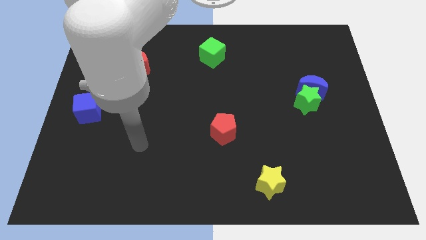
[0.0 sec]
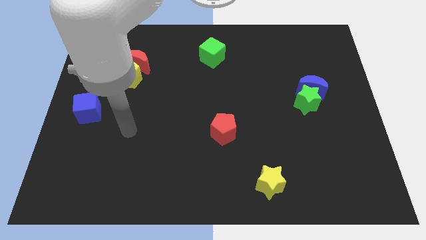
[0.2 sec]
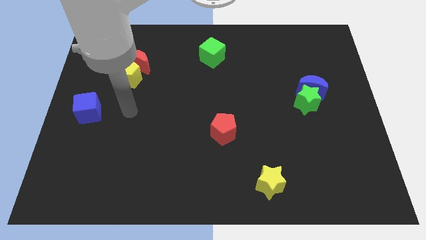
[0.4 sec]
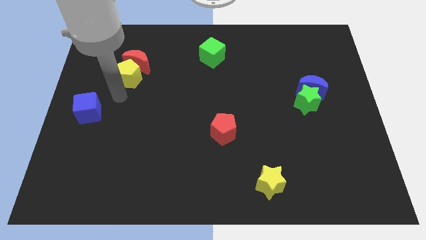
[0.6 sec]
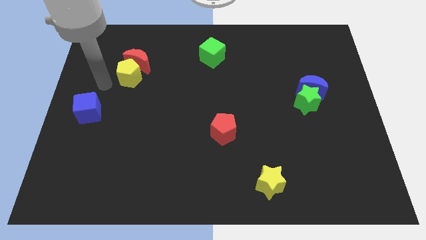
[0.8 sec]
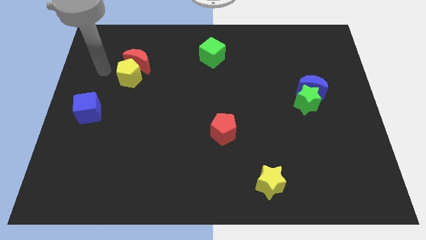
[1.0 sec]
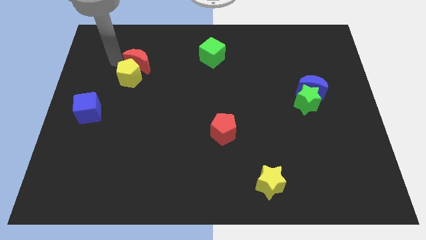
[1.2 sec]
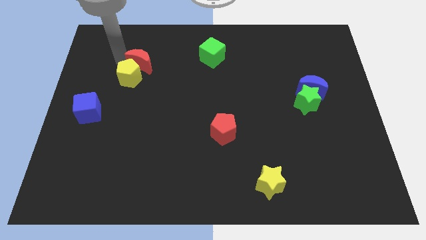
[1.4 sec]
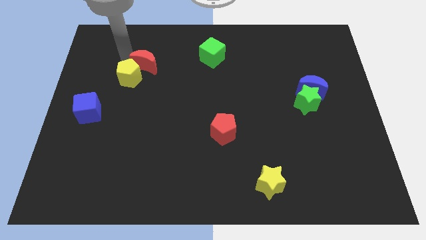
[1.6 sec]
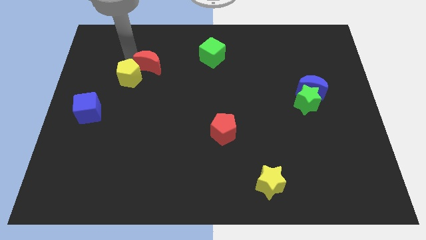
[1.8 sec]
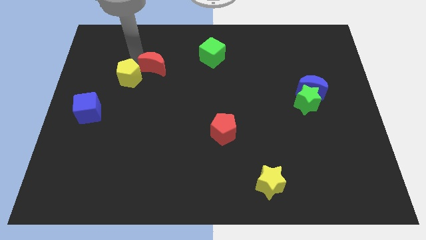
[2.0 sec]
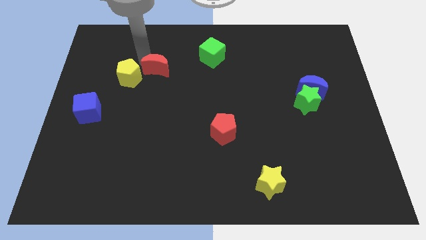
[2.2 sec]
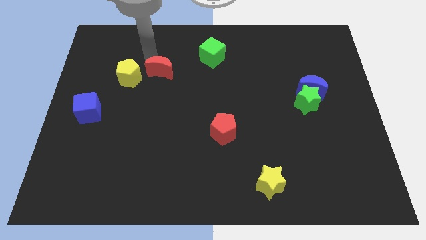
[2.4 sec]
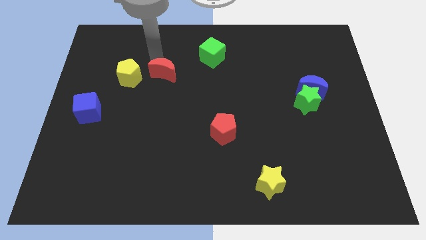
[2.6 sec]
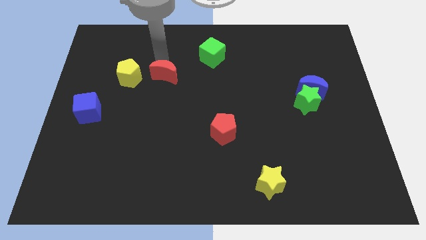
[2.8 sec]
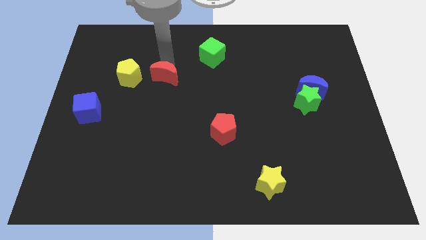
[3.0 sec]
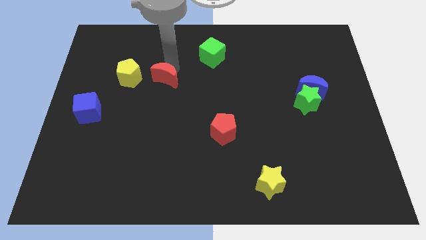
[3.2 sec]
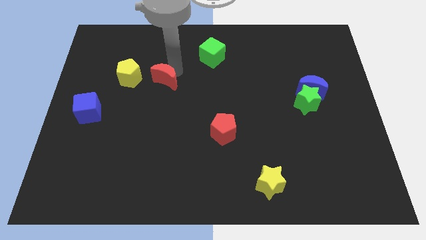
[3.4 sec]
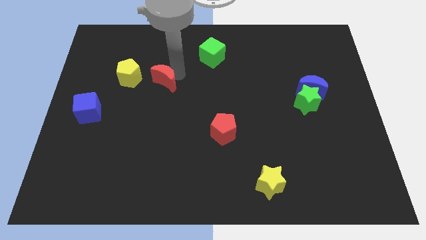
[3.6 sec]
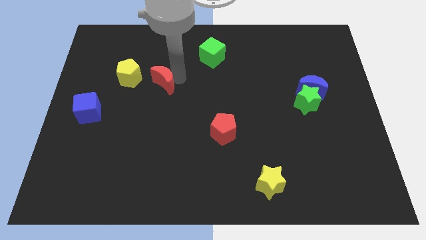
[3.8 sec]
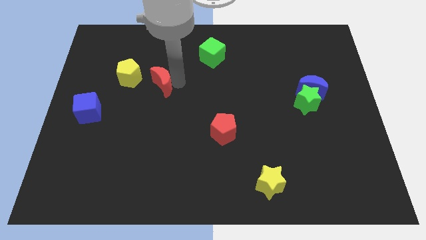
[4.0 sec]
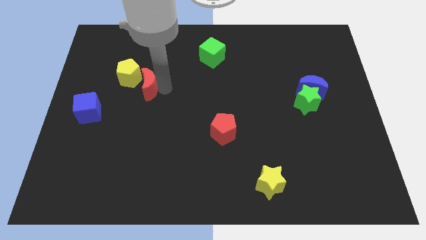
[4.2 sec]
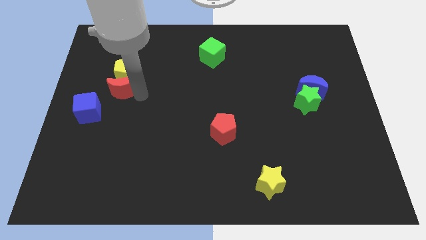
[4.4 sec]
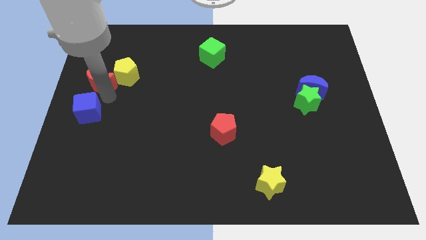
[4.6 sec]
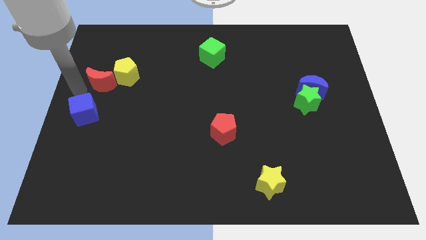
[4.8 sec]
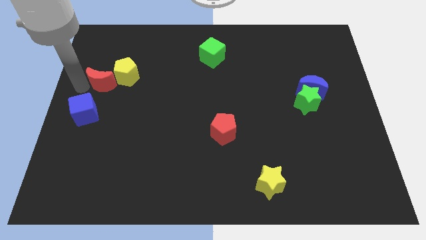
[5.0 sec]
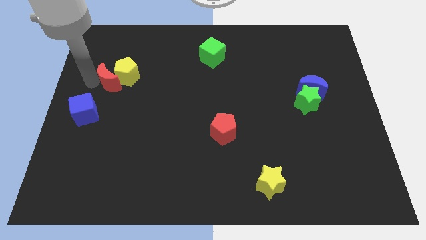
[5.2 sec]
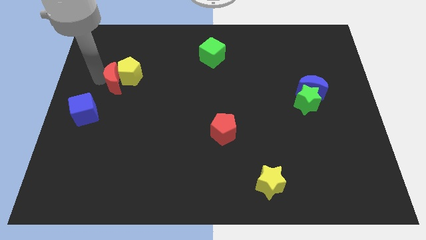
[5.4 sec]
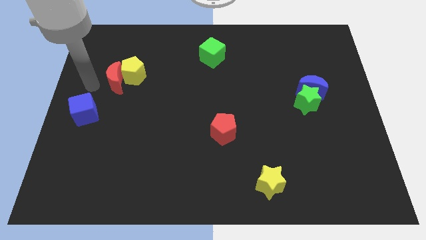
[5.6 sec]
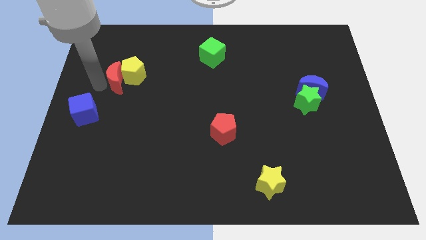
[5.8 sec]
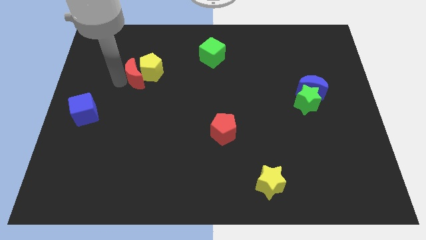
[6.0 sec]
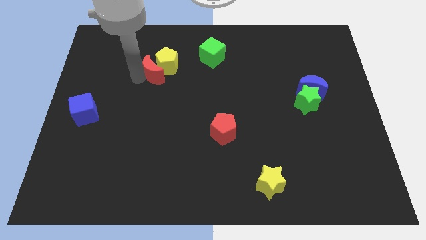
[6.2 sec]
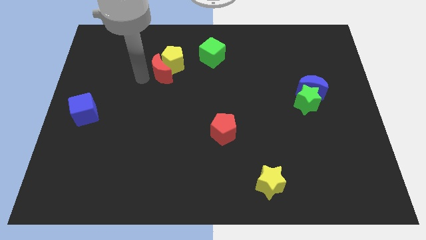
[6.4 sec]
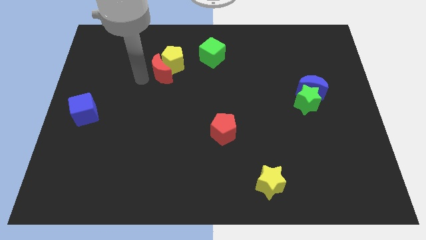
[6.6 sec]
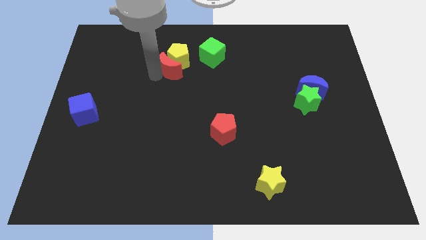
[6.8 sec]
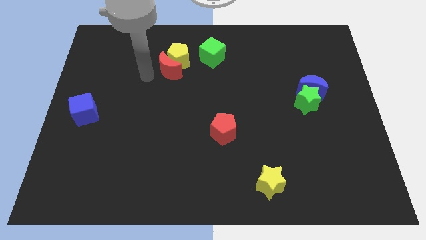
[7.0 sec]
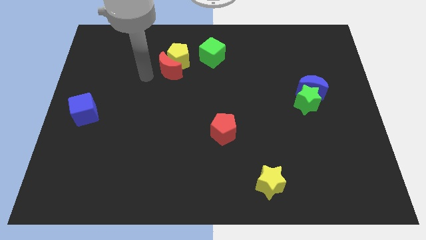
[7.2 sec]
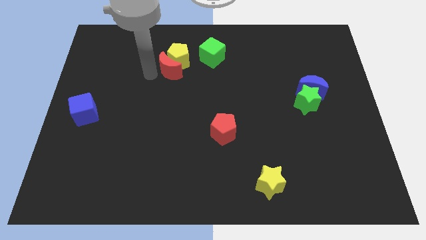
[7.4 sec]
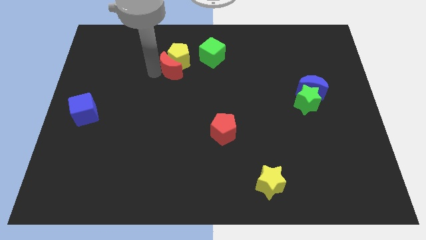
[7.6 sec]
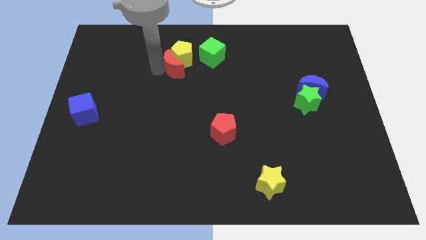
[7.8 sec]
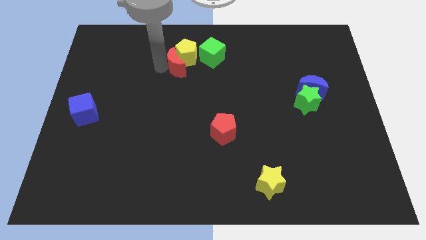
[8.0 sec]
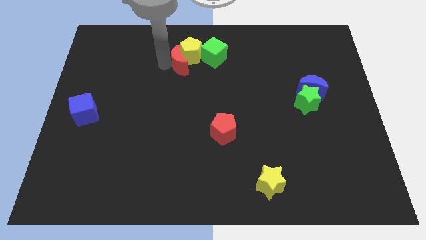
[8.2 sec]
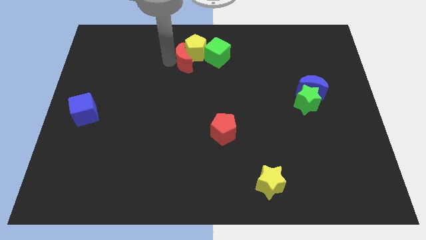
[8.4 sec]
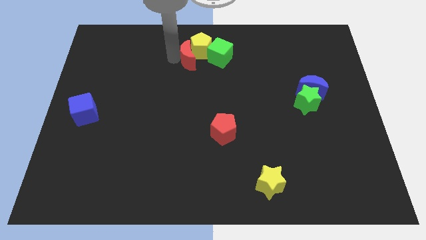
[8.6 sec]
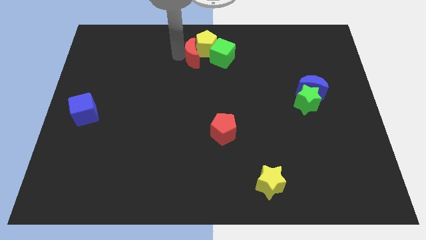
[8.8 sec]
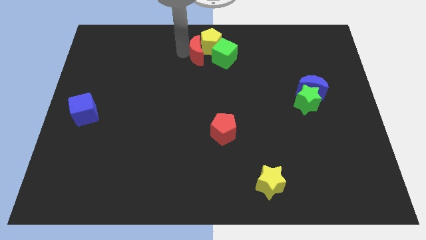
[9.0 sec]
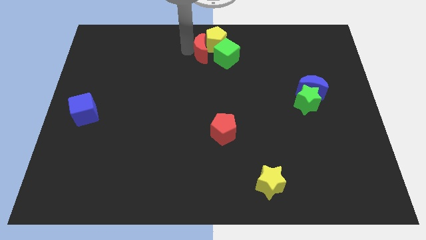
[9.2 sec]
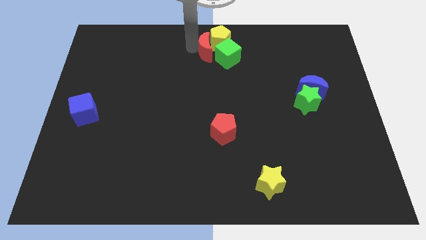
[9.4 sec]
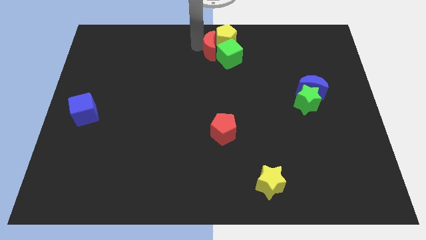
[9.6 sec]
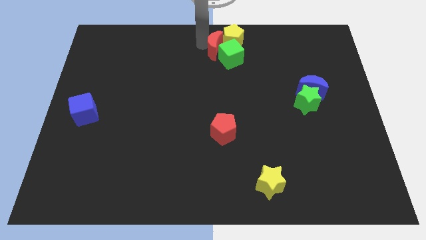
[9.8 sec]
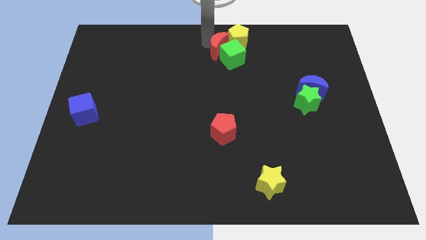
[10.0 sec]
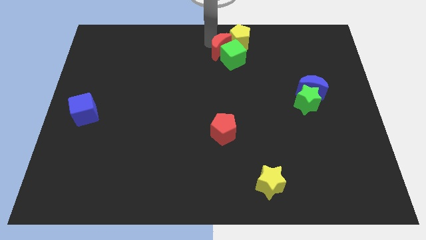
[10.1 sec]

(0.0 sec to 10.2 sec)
move the red moon to the right

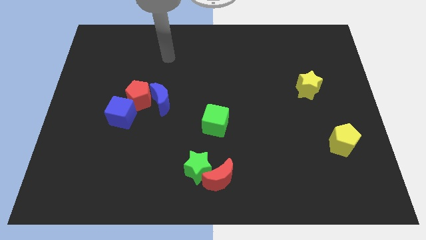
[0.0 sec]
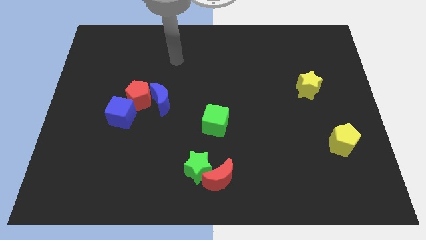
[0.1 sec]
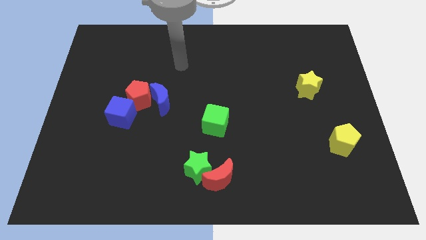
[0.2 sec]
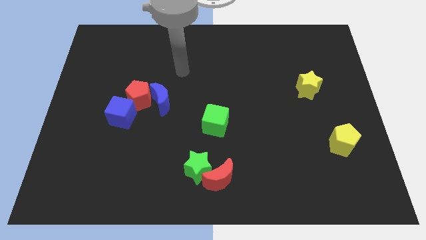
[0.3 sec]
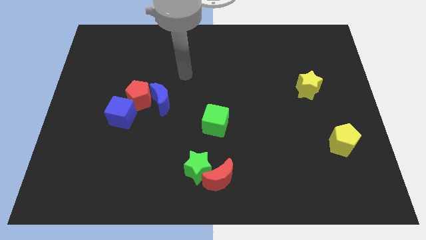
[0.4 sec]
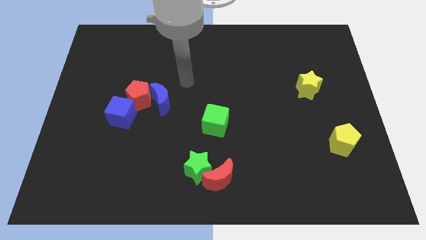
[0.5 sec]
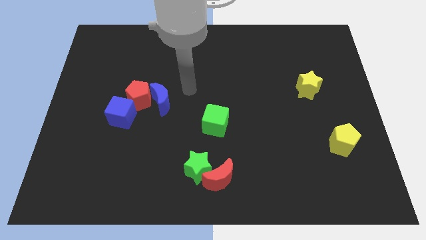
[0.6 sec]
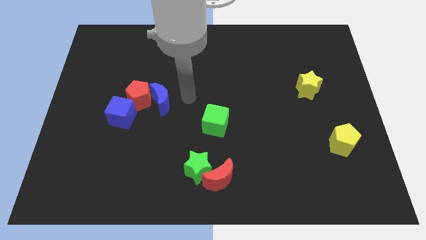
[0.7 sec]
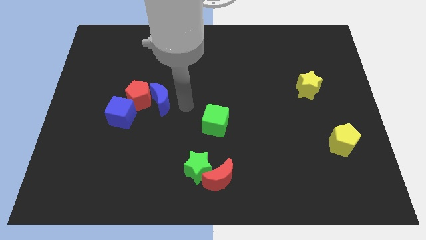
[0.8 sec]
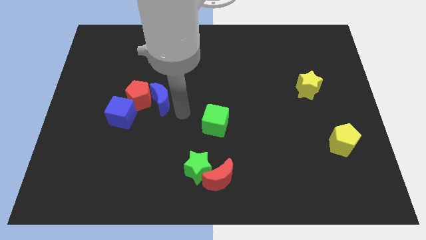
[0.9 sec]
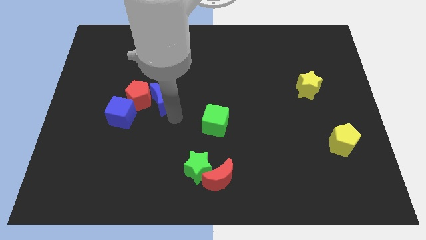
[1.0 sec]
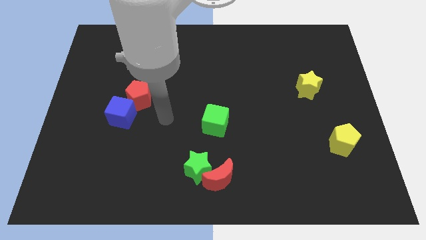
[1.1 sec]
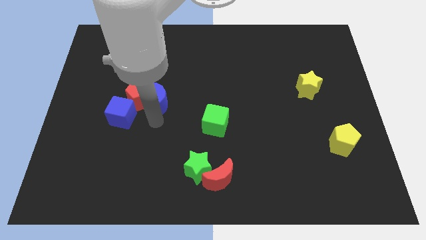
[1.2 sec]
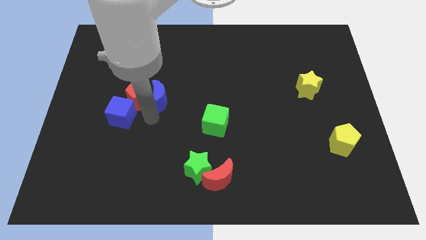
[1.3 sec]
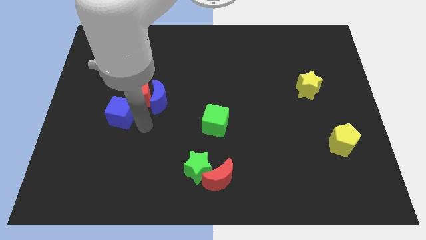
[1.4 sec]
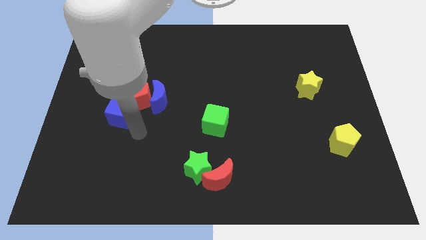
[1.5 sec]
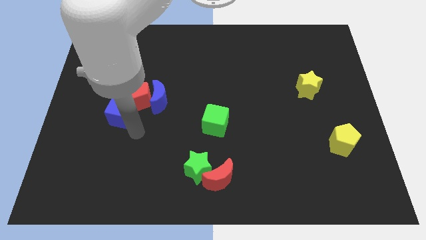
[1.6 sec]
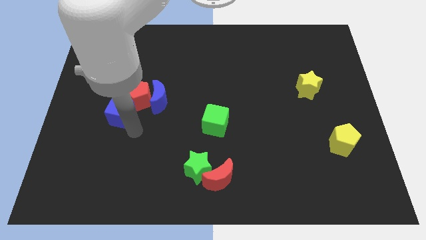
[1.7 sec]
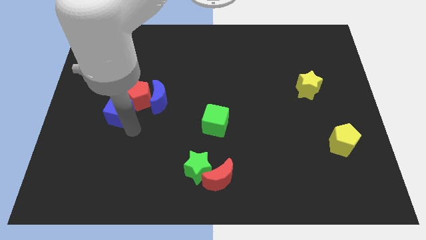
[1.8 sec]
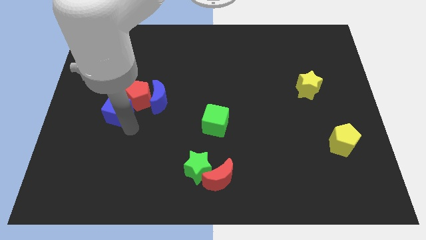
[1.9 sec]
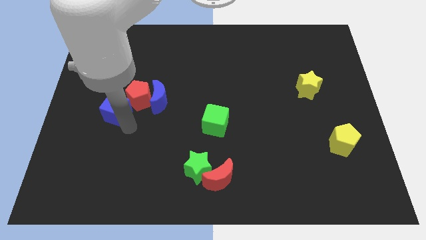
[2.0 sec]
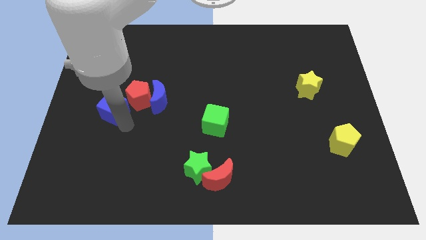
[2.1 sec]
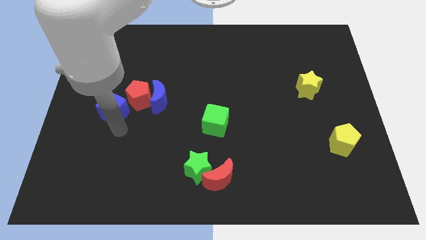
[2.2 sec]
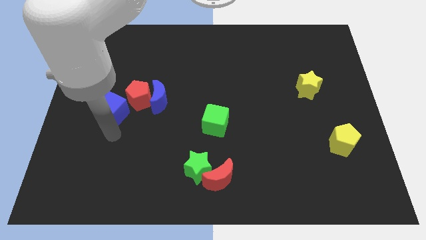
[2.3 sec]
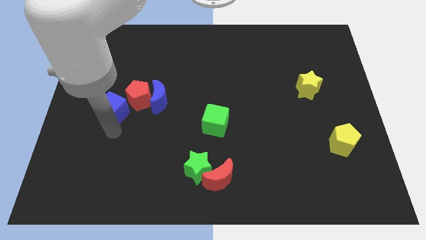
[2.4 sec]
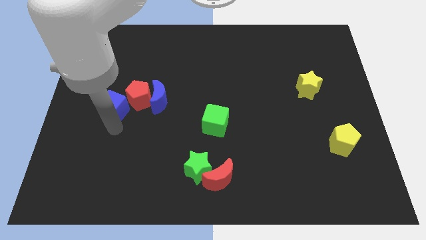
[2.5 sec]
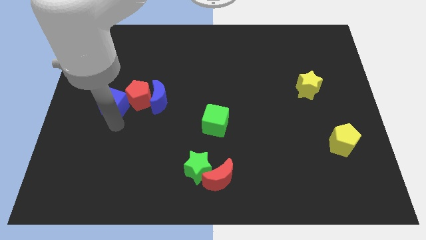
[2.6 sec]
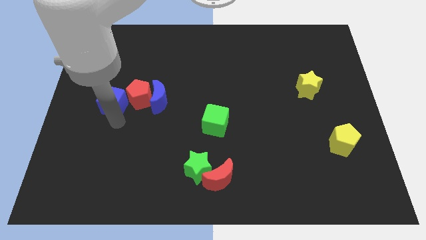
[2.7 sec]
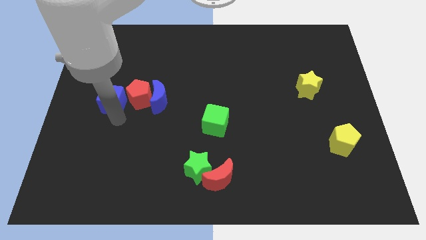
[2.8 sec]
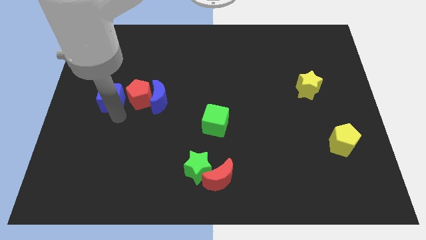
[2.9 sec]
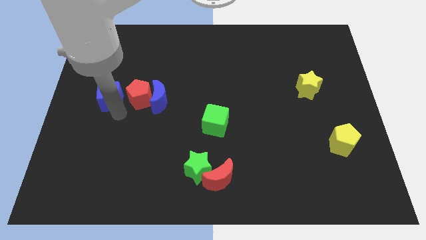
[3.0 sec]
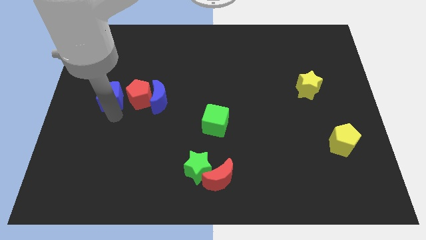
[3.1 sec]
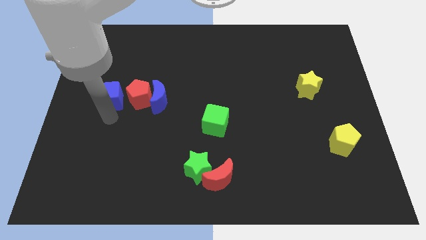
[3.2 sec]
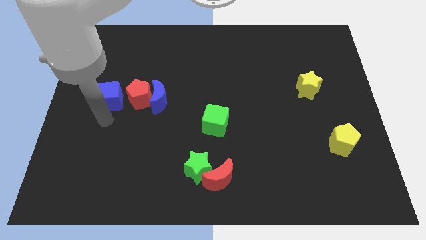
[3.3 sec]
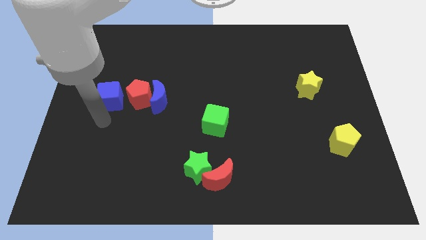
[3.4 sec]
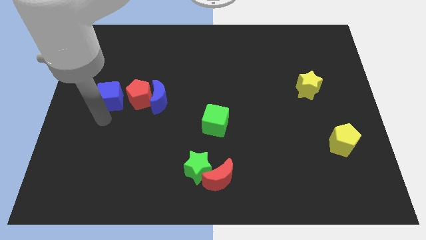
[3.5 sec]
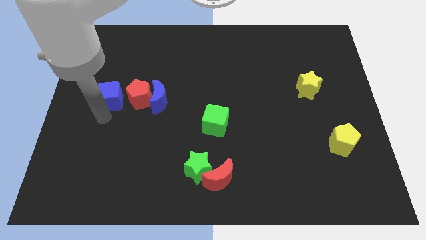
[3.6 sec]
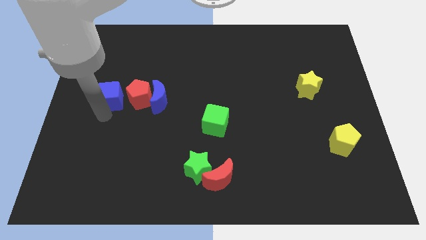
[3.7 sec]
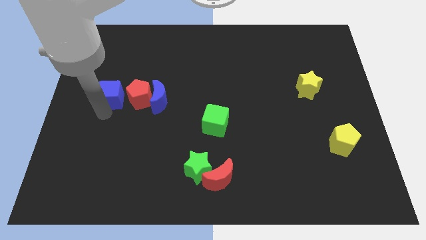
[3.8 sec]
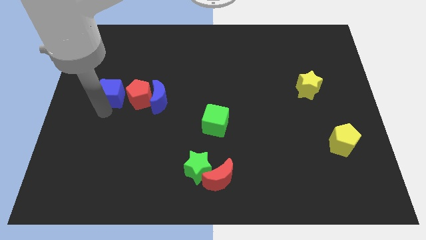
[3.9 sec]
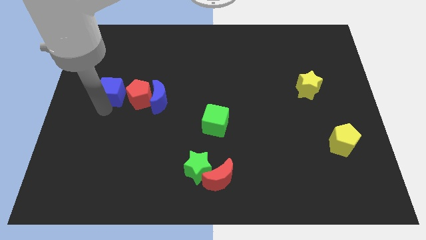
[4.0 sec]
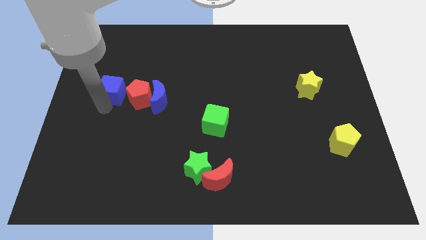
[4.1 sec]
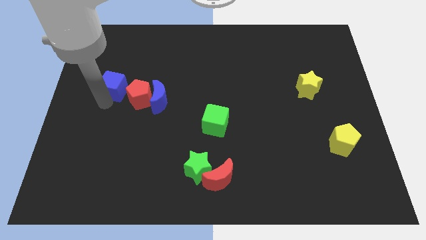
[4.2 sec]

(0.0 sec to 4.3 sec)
slide the blue cube up somewhat
